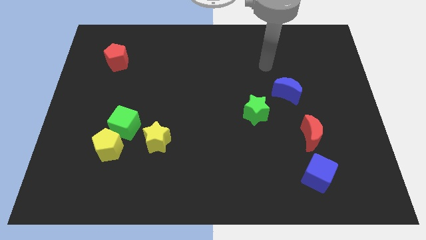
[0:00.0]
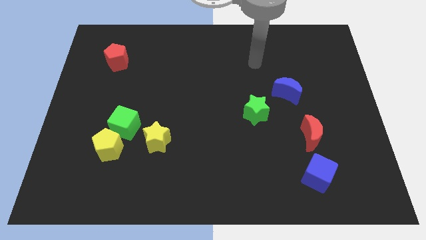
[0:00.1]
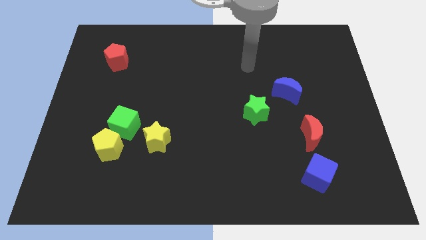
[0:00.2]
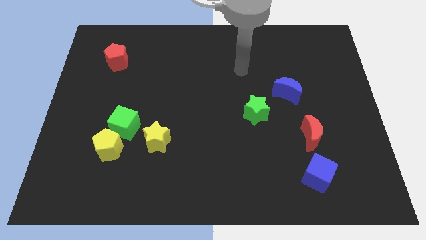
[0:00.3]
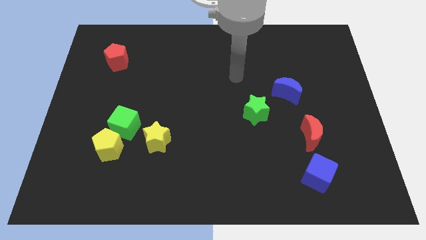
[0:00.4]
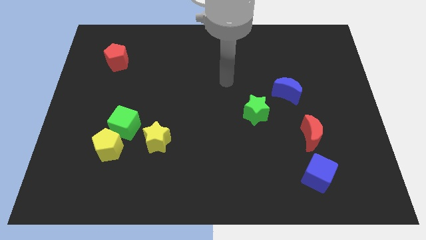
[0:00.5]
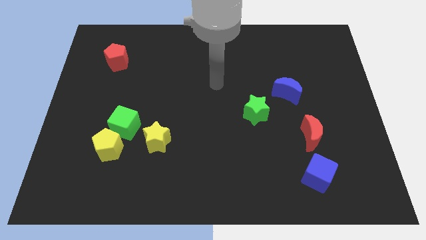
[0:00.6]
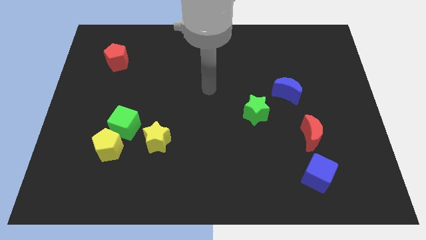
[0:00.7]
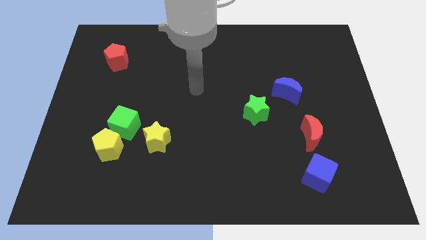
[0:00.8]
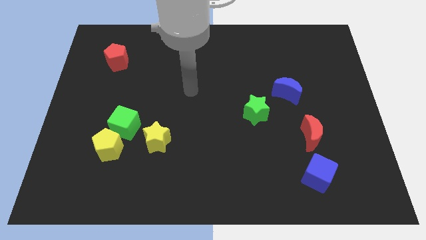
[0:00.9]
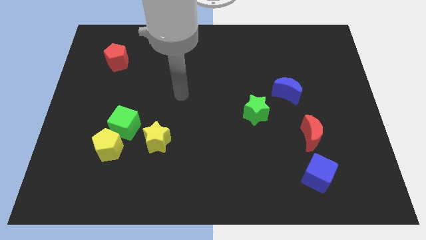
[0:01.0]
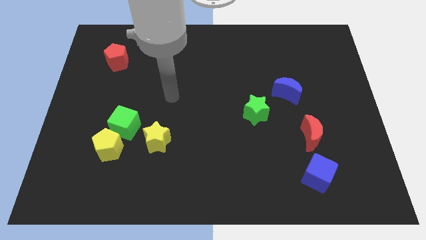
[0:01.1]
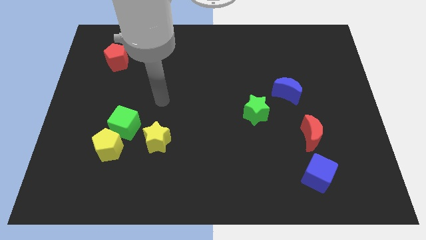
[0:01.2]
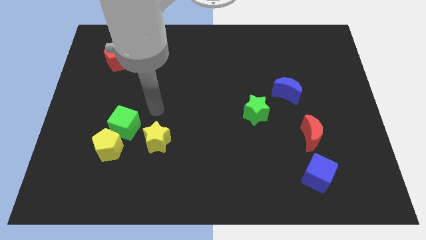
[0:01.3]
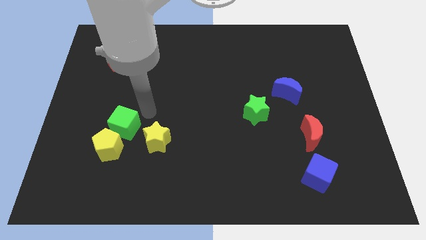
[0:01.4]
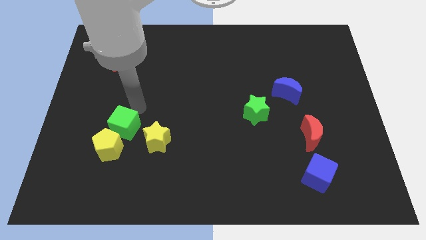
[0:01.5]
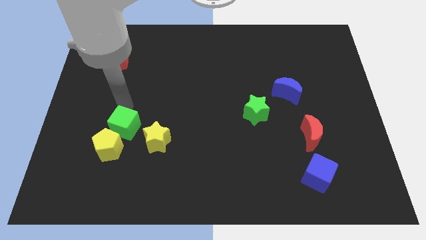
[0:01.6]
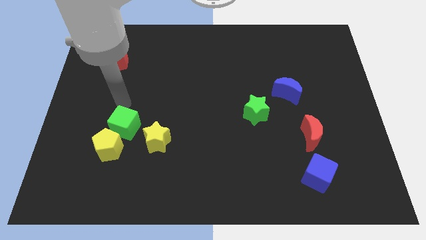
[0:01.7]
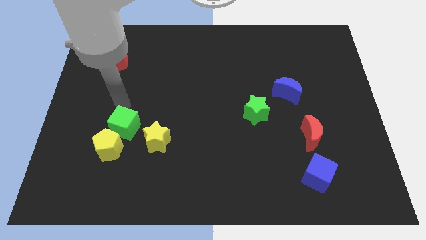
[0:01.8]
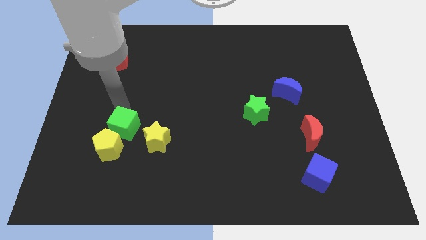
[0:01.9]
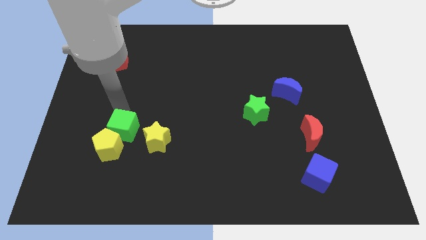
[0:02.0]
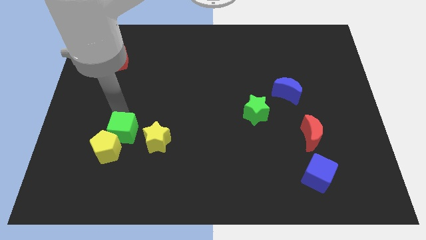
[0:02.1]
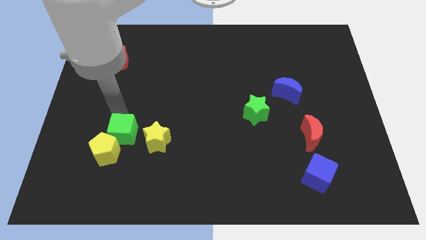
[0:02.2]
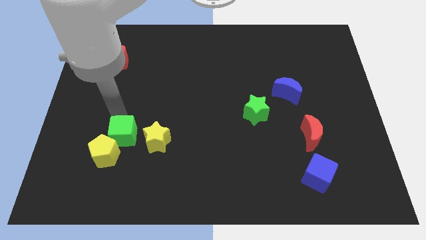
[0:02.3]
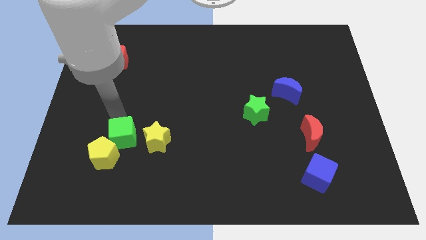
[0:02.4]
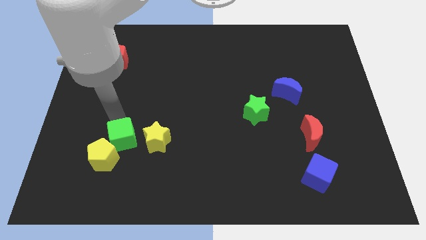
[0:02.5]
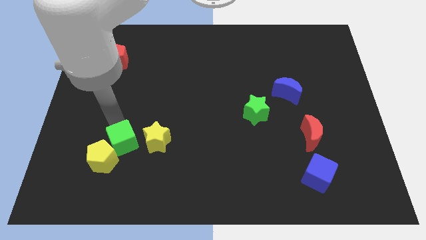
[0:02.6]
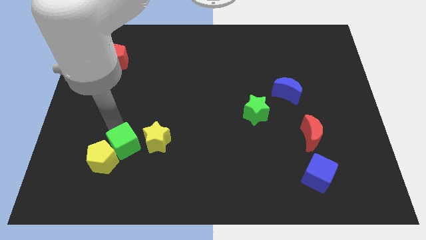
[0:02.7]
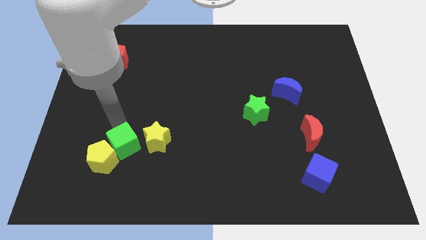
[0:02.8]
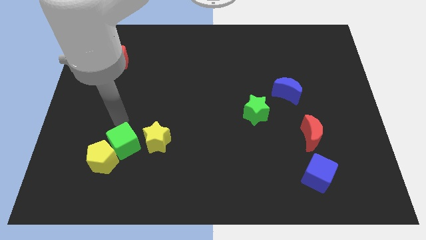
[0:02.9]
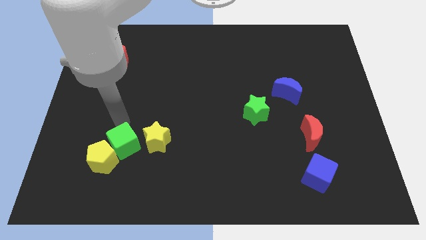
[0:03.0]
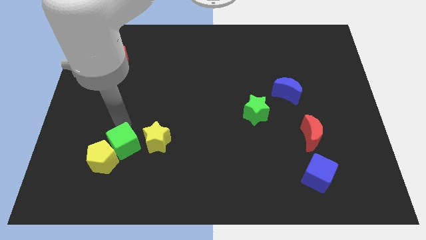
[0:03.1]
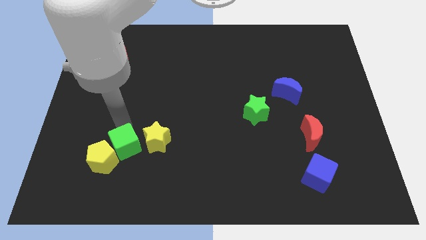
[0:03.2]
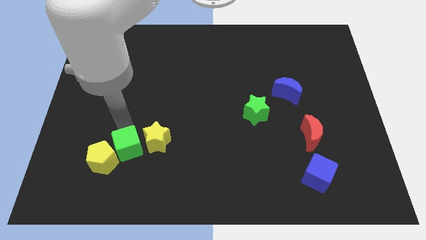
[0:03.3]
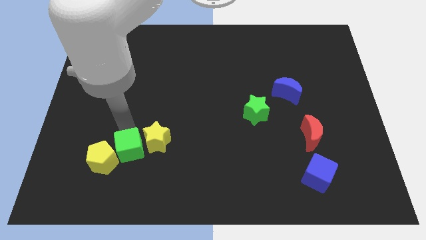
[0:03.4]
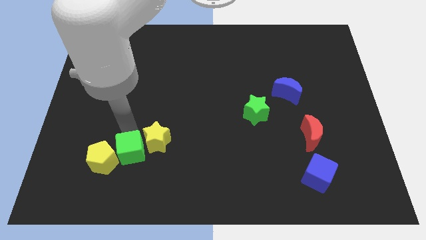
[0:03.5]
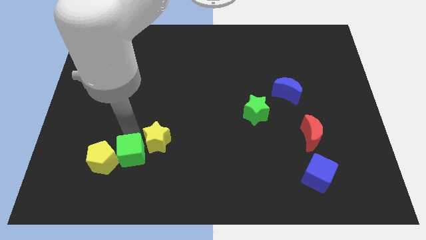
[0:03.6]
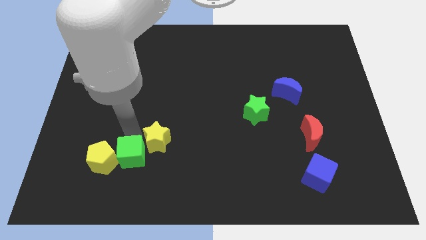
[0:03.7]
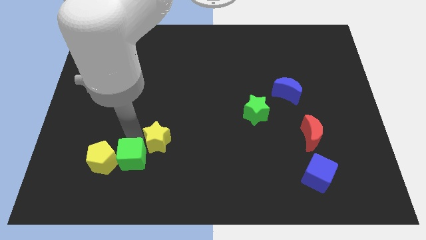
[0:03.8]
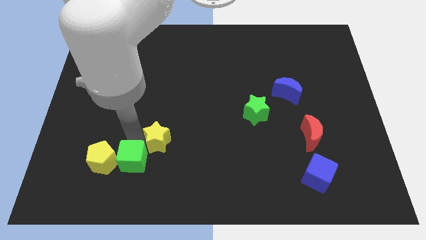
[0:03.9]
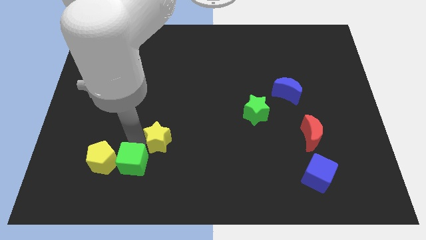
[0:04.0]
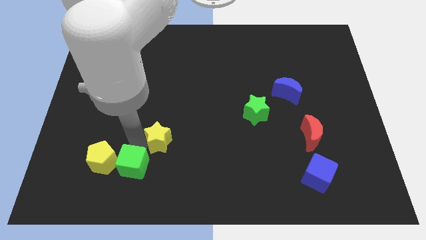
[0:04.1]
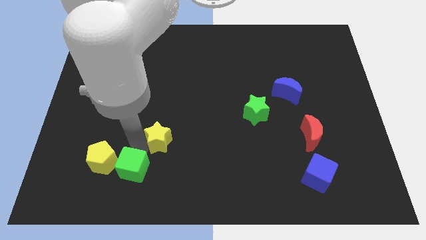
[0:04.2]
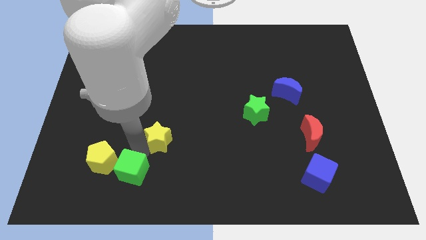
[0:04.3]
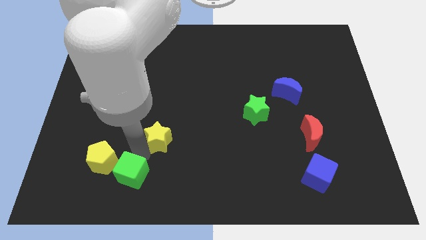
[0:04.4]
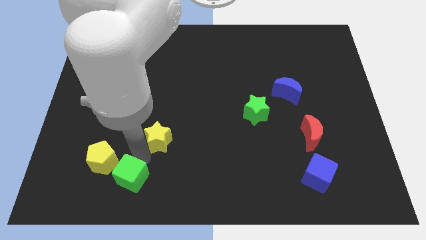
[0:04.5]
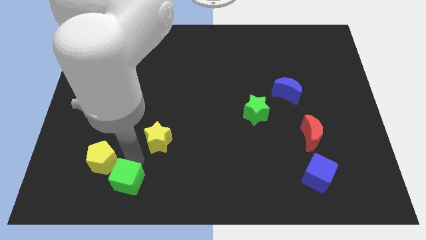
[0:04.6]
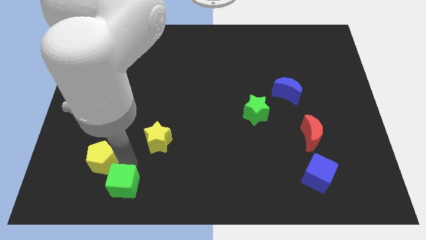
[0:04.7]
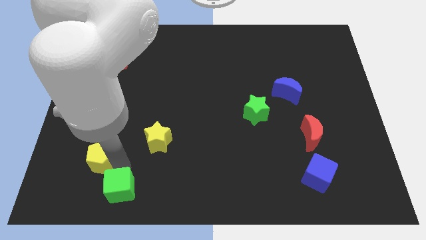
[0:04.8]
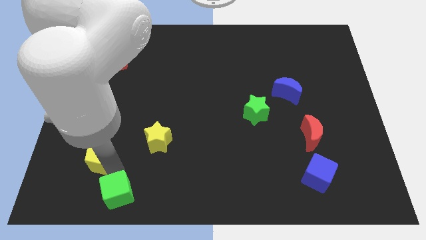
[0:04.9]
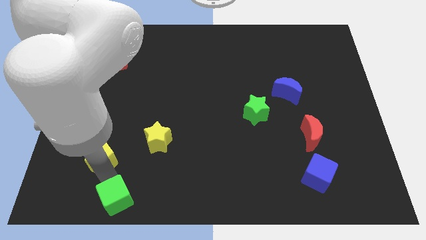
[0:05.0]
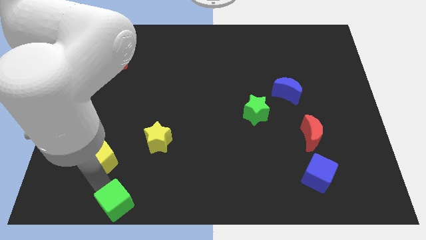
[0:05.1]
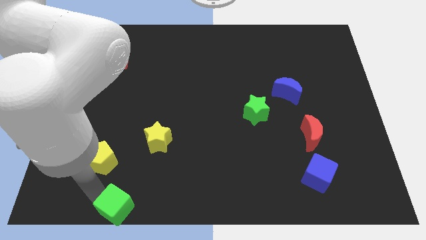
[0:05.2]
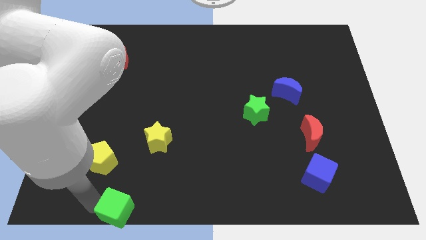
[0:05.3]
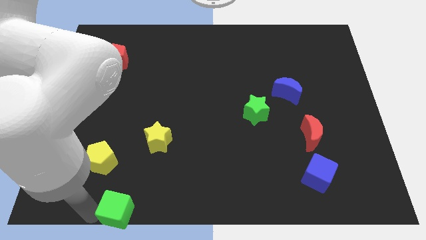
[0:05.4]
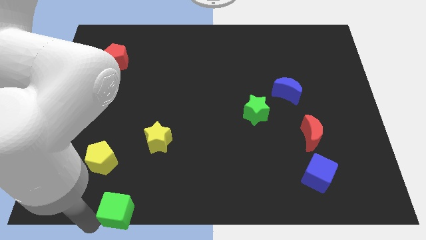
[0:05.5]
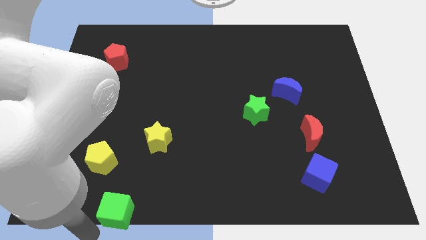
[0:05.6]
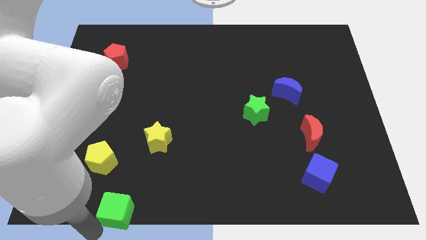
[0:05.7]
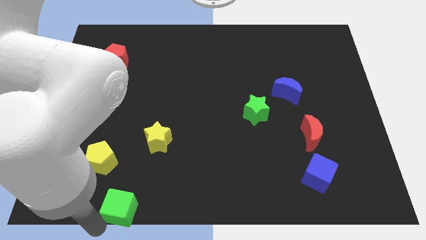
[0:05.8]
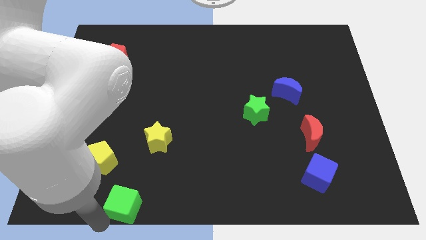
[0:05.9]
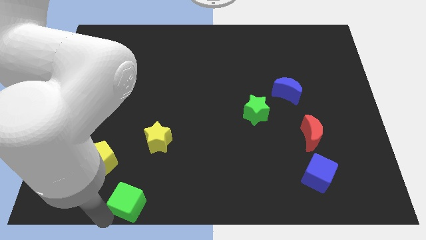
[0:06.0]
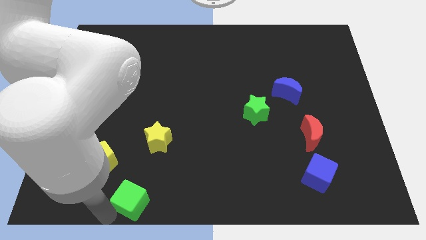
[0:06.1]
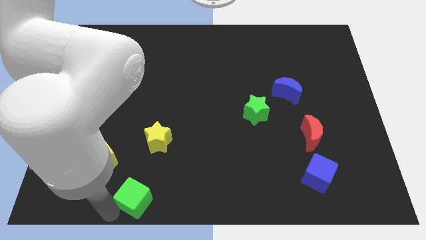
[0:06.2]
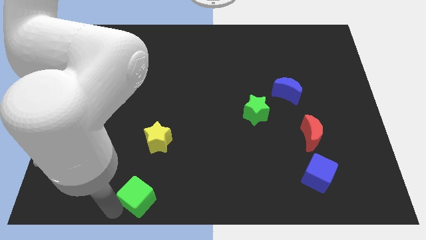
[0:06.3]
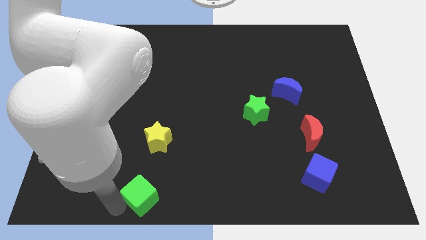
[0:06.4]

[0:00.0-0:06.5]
move the green cube to the bottom

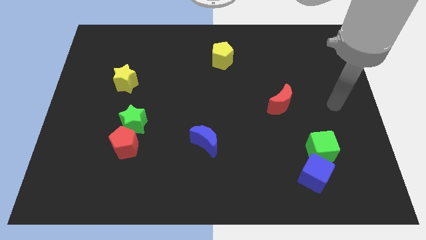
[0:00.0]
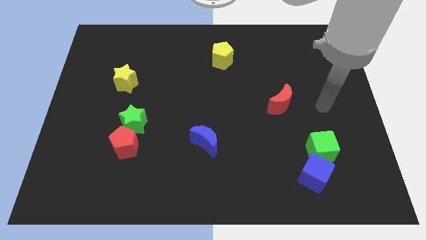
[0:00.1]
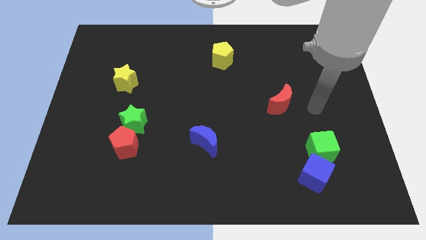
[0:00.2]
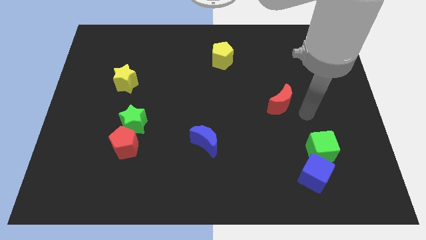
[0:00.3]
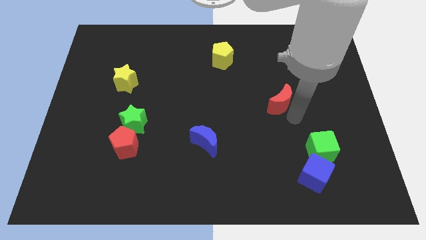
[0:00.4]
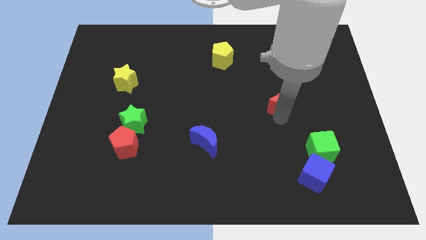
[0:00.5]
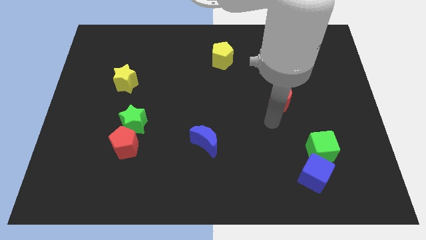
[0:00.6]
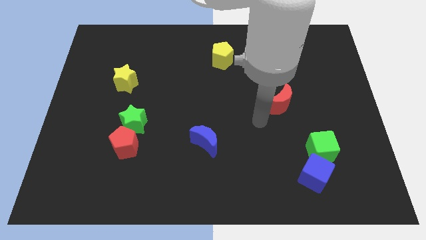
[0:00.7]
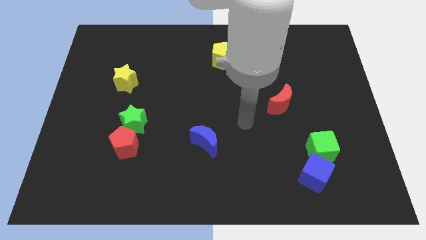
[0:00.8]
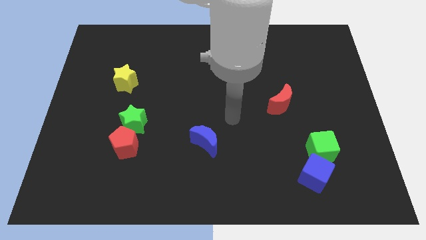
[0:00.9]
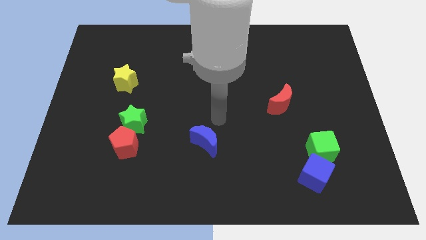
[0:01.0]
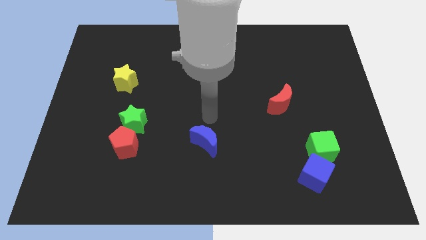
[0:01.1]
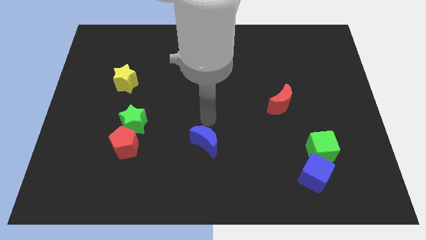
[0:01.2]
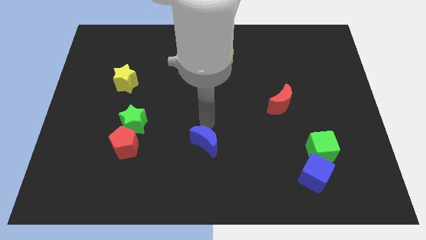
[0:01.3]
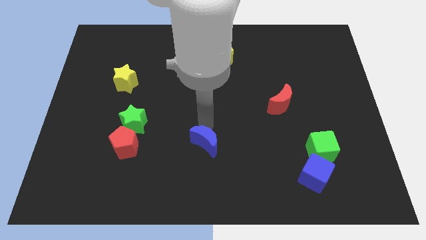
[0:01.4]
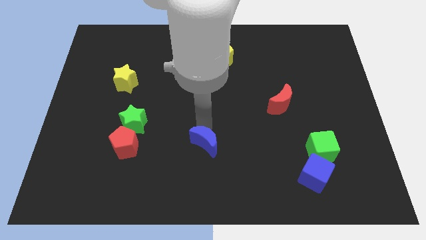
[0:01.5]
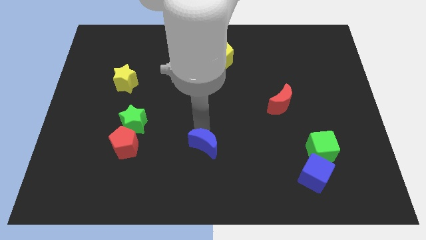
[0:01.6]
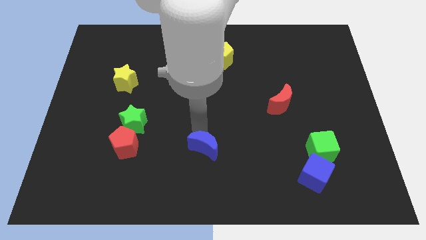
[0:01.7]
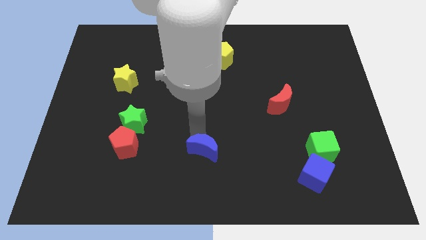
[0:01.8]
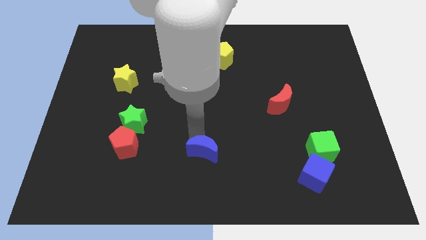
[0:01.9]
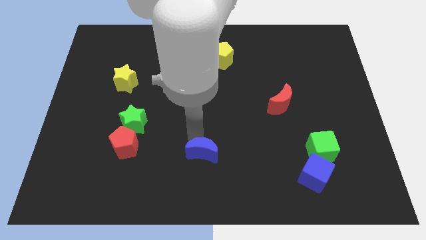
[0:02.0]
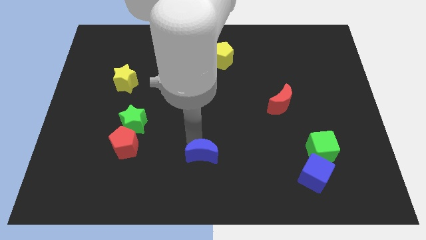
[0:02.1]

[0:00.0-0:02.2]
move the blue moon to the bottom
